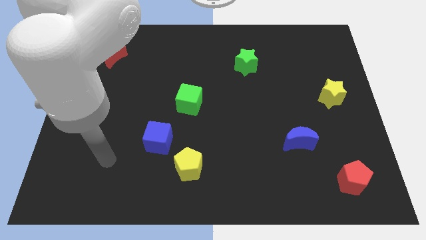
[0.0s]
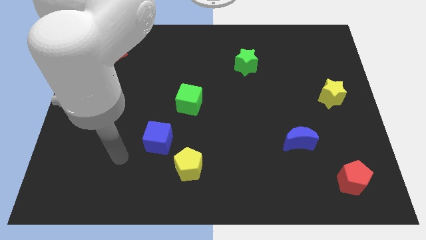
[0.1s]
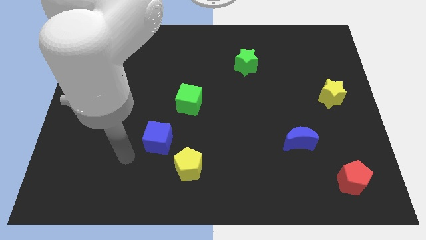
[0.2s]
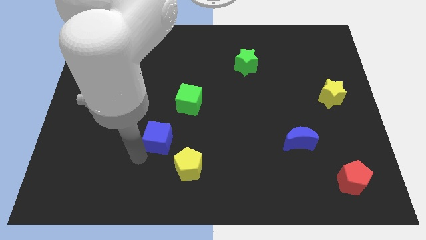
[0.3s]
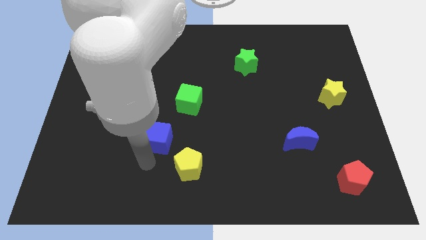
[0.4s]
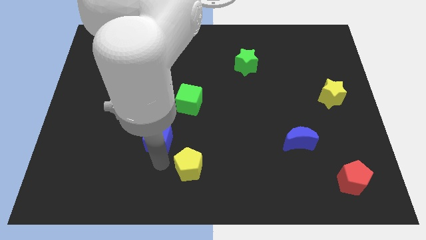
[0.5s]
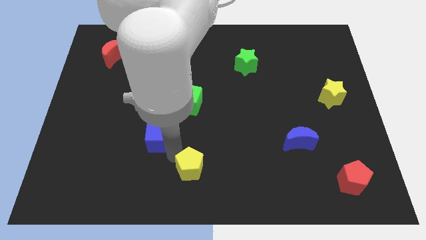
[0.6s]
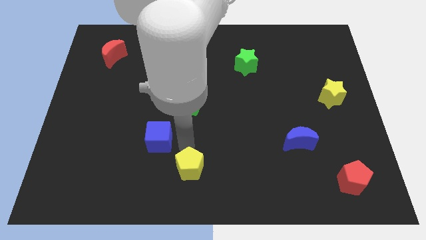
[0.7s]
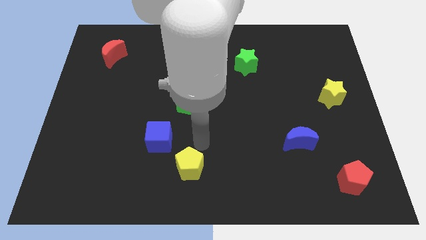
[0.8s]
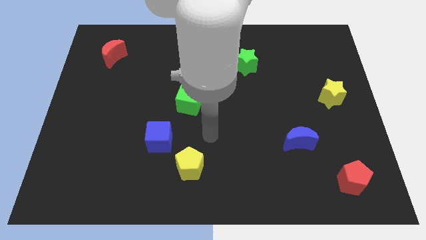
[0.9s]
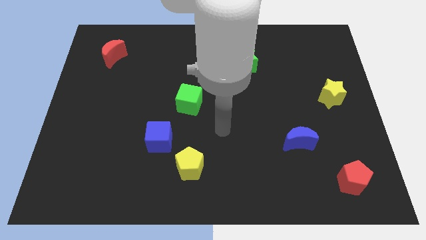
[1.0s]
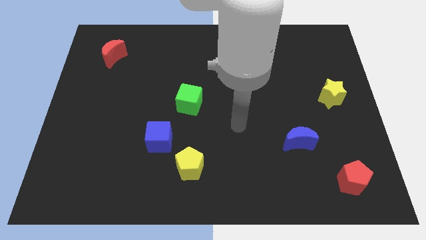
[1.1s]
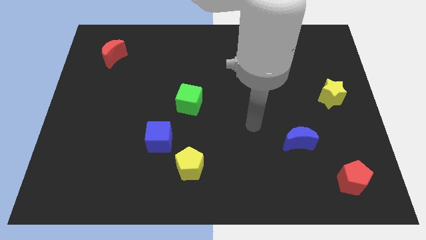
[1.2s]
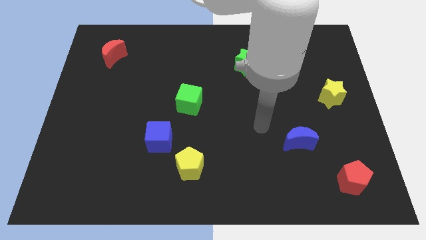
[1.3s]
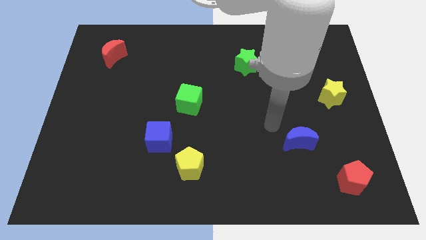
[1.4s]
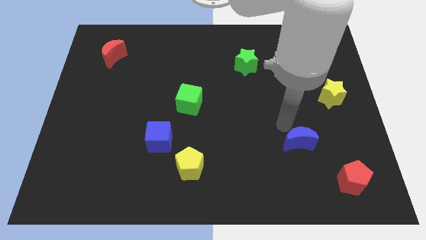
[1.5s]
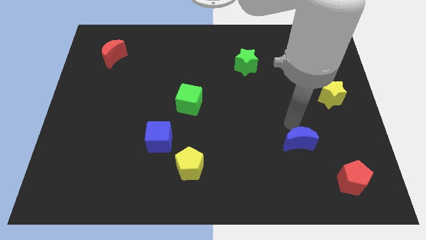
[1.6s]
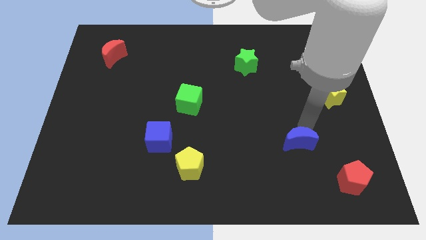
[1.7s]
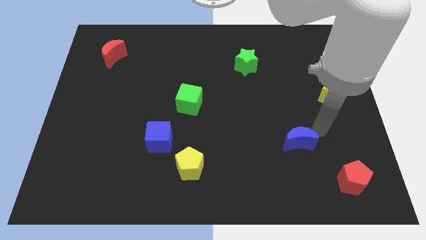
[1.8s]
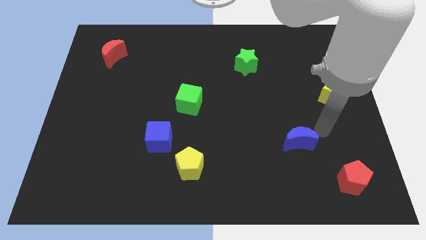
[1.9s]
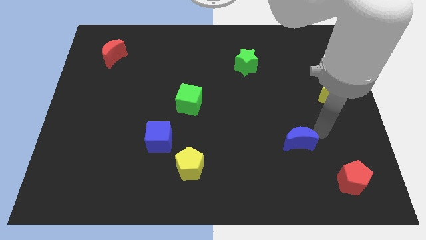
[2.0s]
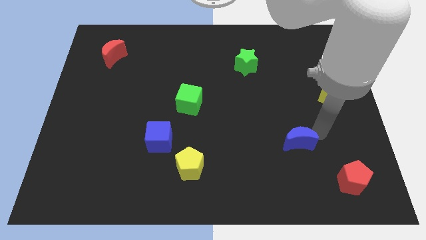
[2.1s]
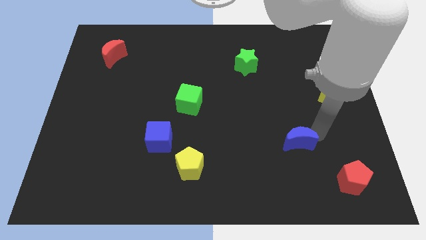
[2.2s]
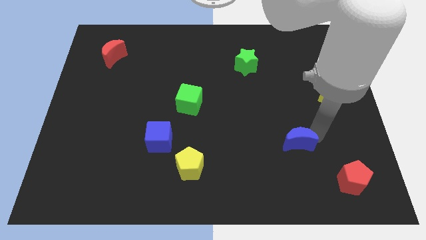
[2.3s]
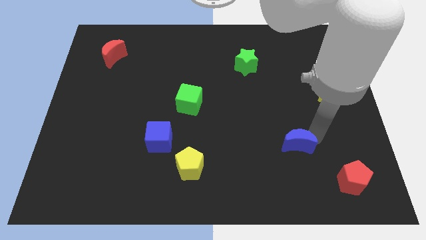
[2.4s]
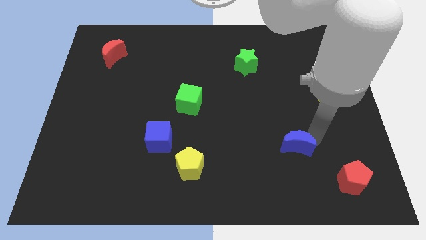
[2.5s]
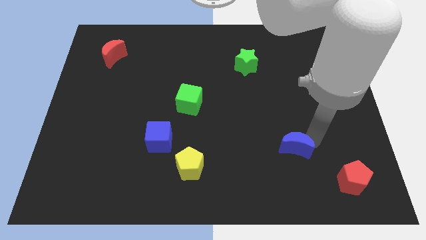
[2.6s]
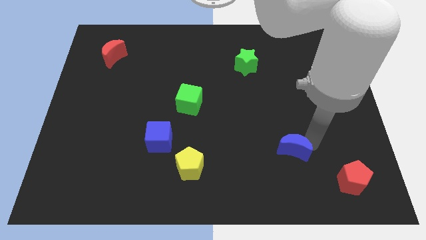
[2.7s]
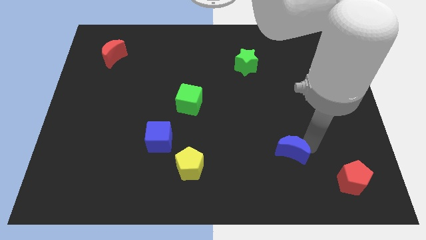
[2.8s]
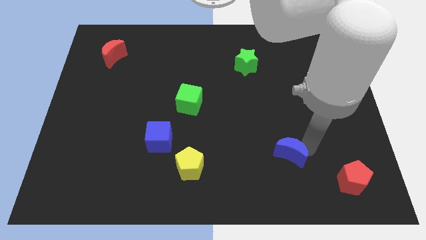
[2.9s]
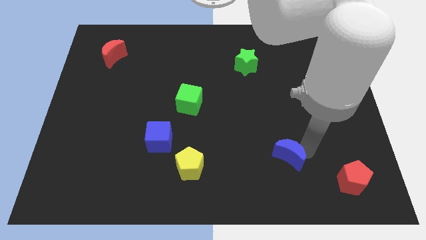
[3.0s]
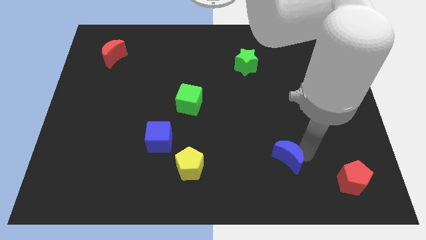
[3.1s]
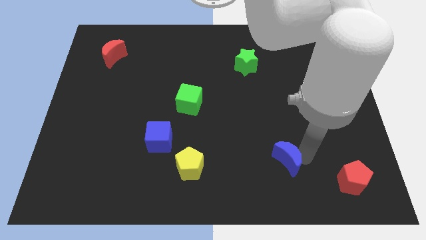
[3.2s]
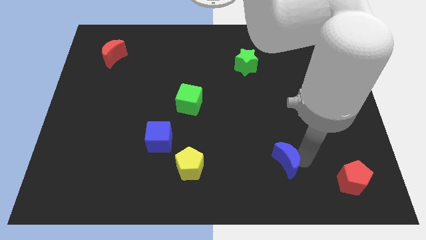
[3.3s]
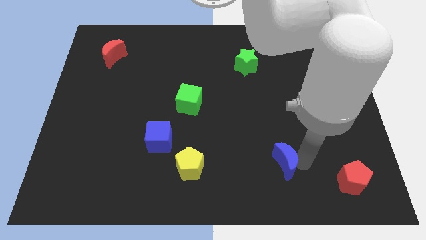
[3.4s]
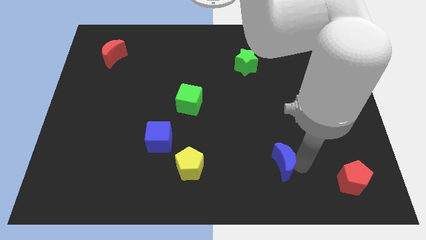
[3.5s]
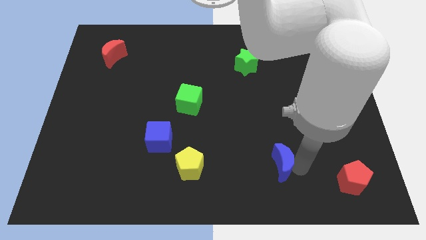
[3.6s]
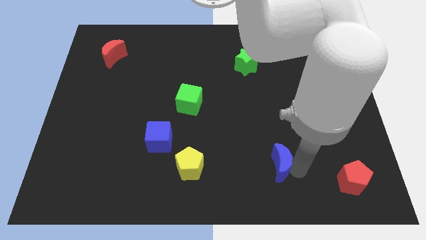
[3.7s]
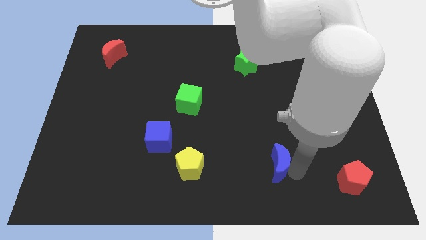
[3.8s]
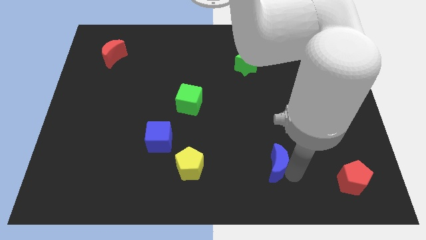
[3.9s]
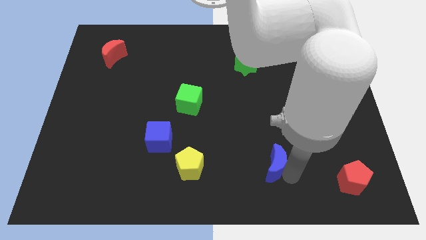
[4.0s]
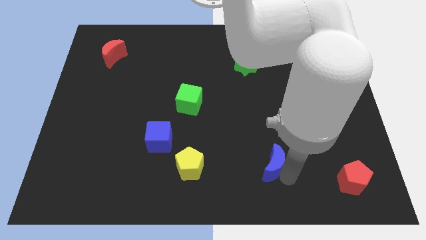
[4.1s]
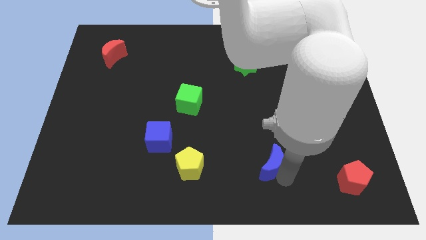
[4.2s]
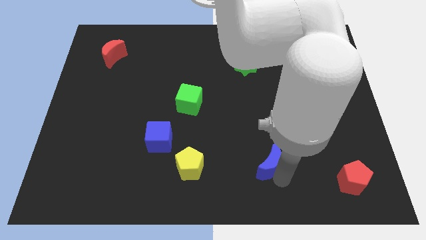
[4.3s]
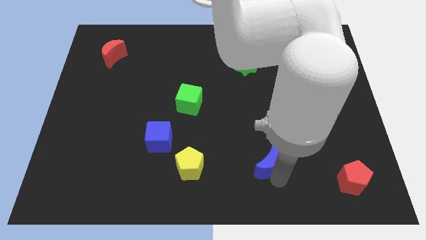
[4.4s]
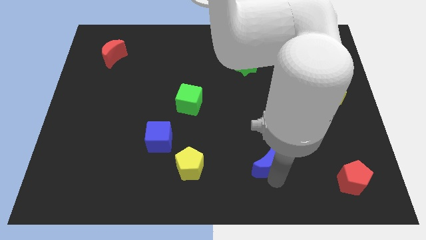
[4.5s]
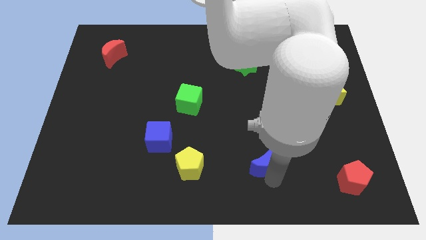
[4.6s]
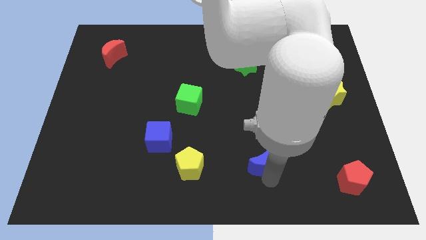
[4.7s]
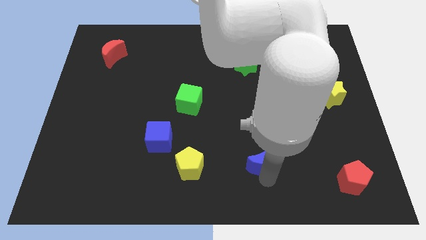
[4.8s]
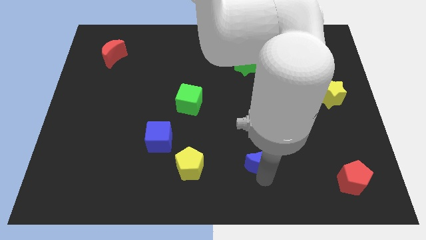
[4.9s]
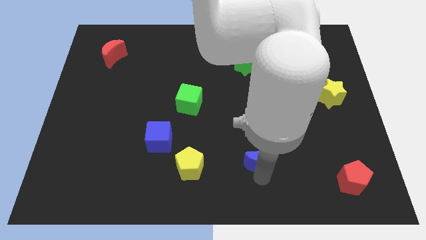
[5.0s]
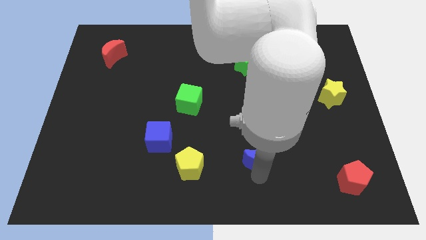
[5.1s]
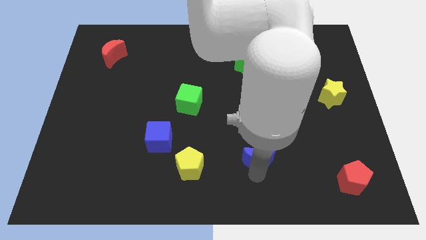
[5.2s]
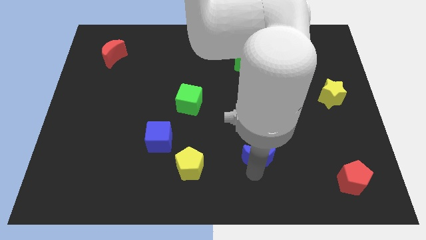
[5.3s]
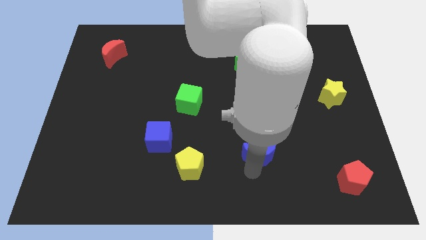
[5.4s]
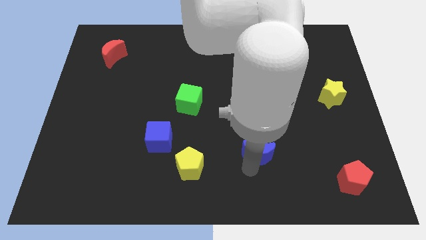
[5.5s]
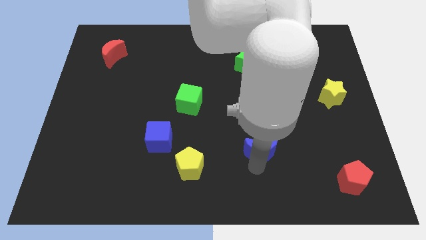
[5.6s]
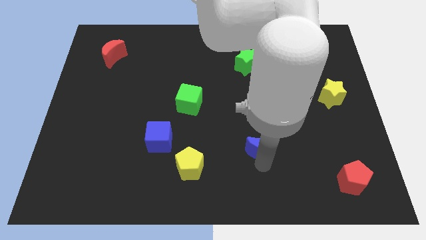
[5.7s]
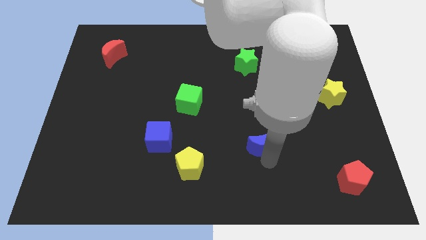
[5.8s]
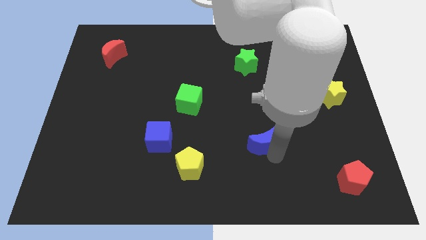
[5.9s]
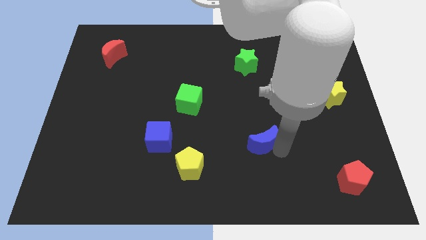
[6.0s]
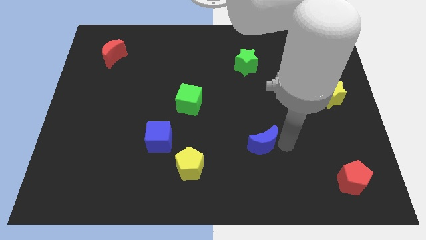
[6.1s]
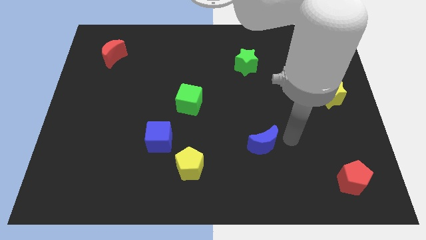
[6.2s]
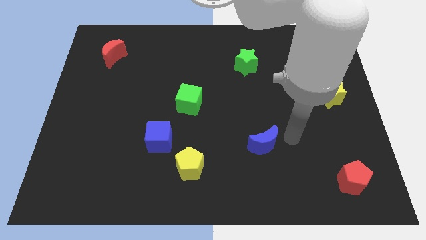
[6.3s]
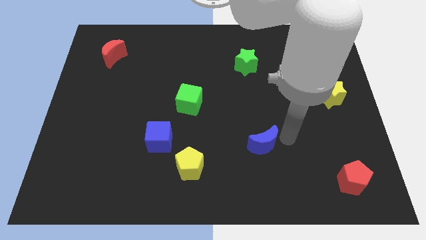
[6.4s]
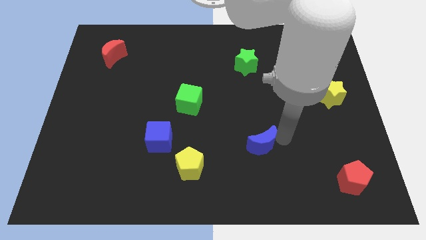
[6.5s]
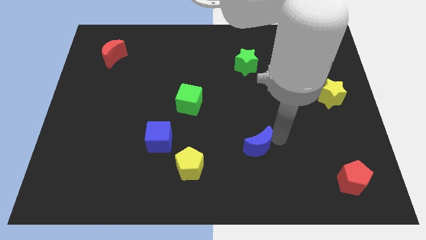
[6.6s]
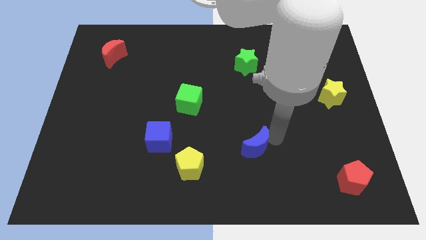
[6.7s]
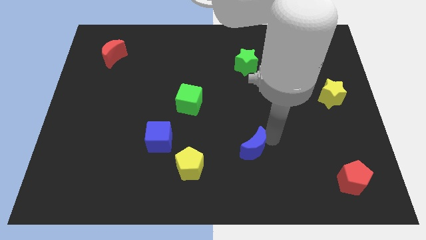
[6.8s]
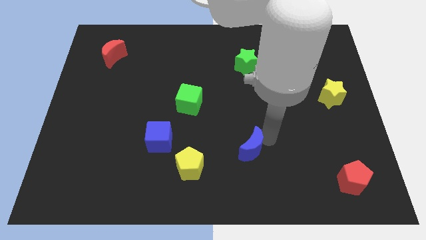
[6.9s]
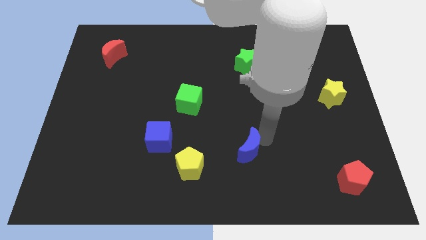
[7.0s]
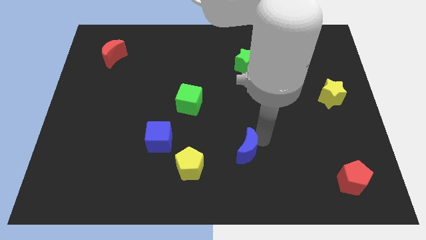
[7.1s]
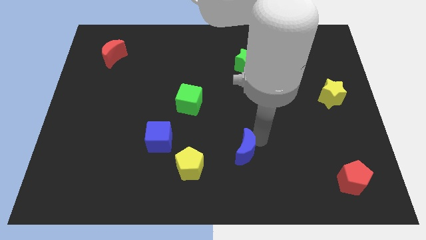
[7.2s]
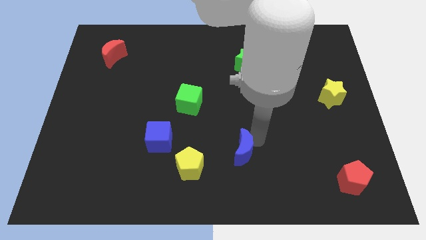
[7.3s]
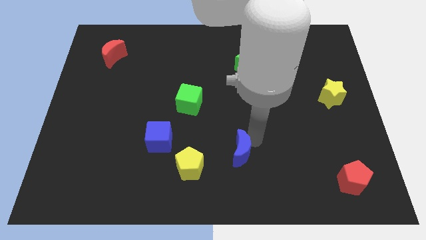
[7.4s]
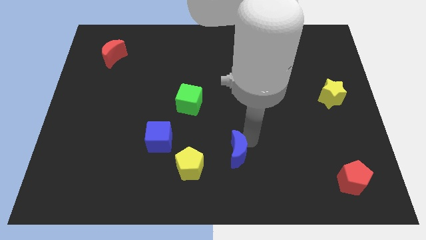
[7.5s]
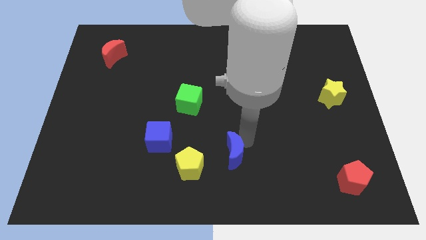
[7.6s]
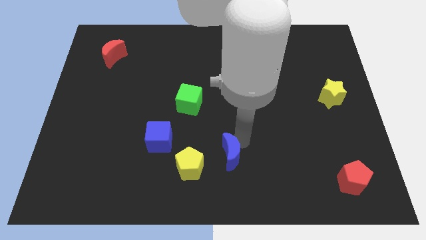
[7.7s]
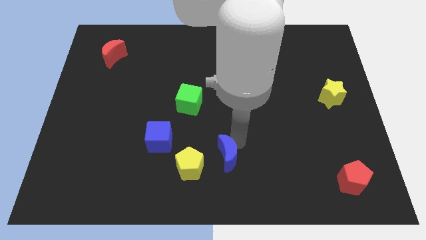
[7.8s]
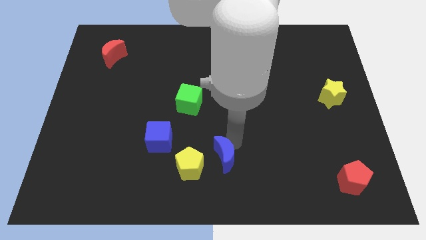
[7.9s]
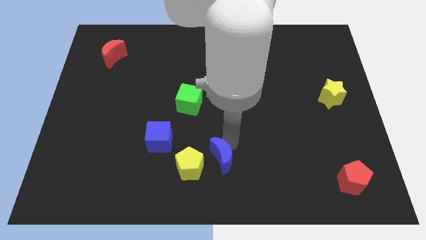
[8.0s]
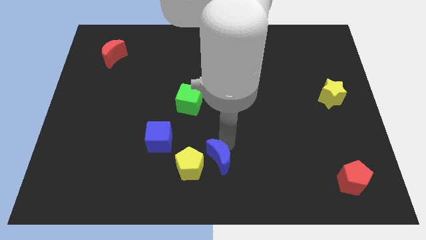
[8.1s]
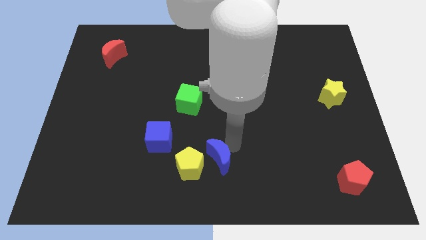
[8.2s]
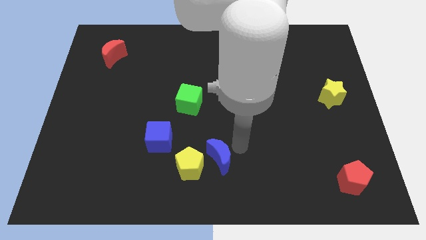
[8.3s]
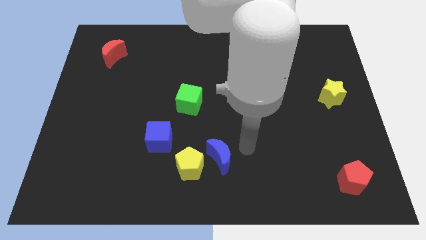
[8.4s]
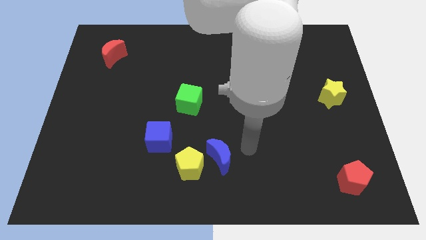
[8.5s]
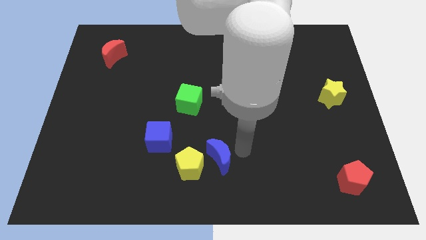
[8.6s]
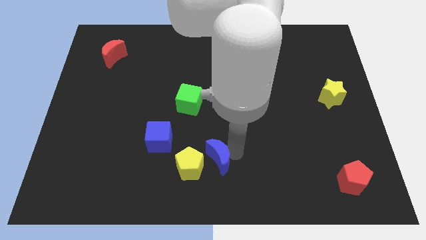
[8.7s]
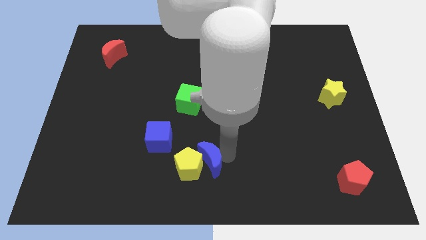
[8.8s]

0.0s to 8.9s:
slide the blue moon close to the yellow pentagon
